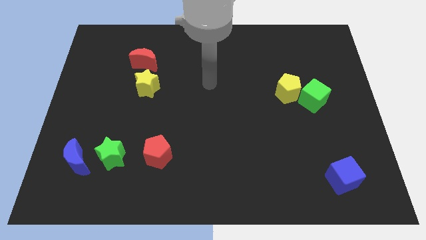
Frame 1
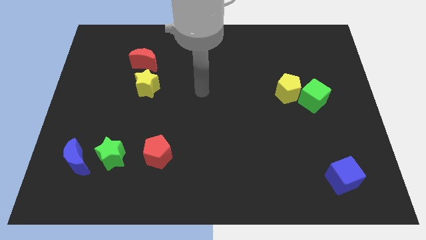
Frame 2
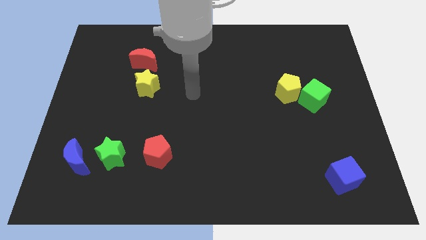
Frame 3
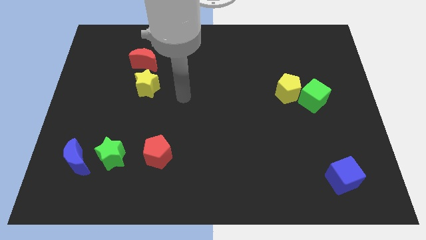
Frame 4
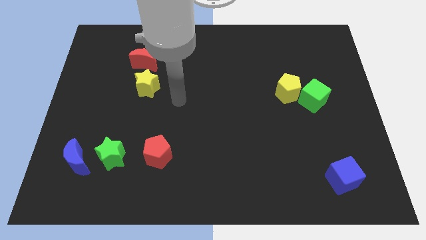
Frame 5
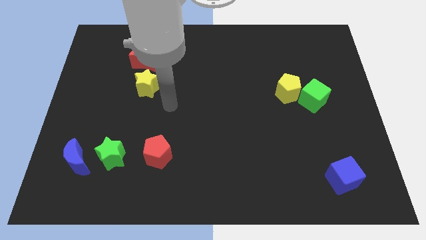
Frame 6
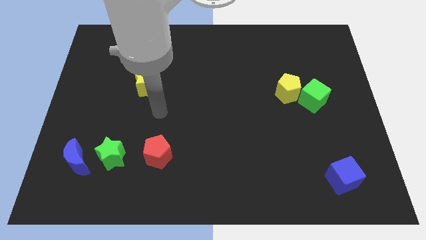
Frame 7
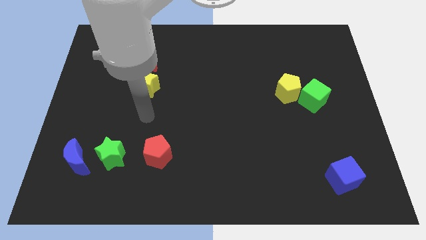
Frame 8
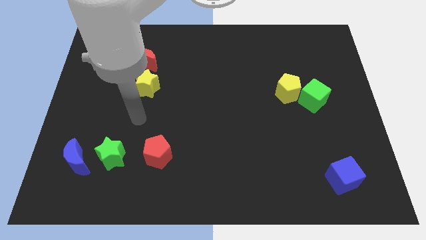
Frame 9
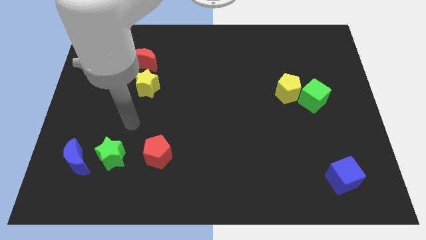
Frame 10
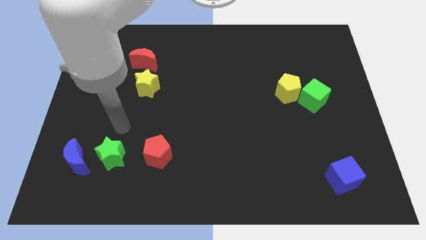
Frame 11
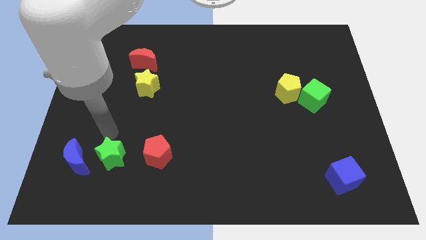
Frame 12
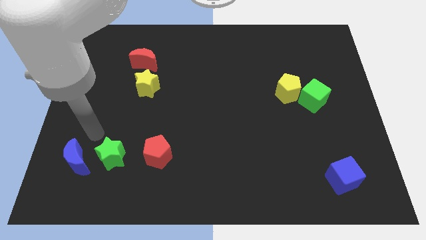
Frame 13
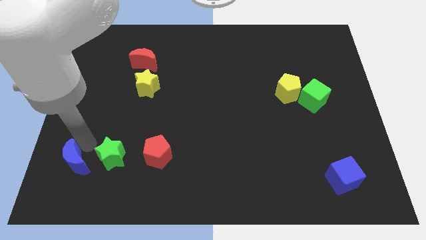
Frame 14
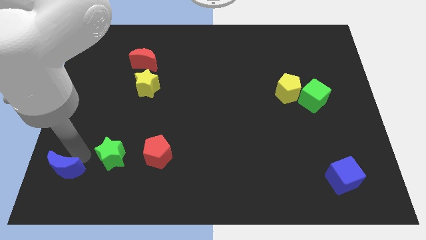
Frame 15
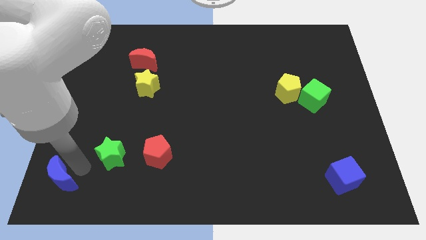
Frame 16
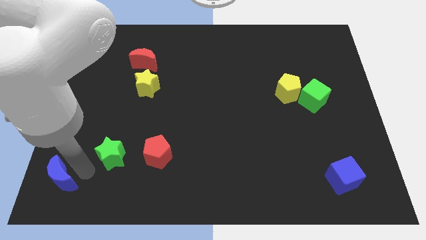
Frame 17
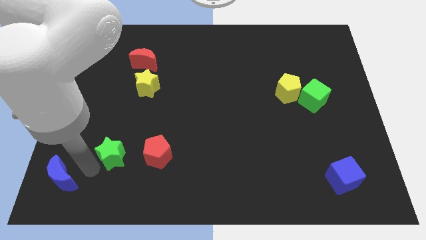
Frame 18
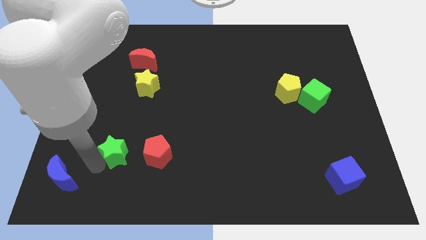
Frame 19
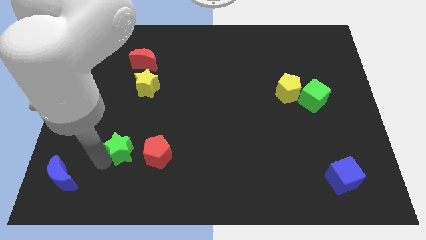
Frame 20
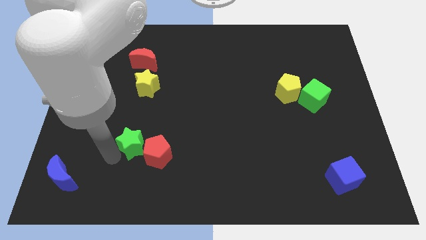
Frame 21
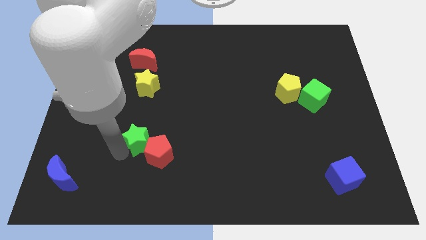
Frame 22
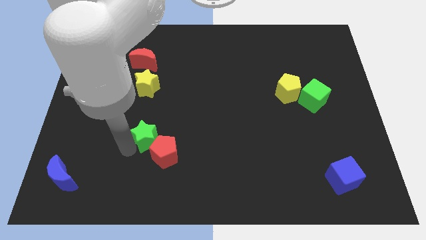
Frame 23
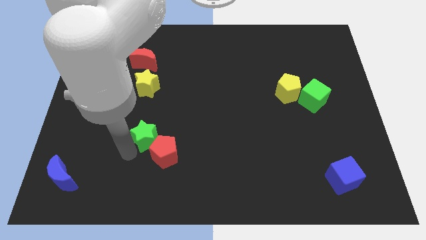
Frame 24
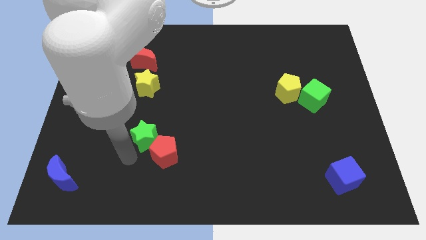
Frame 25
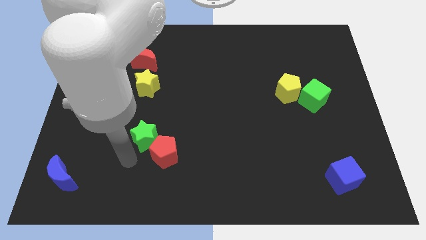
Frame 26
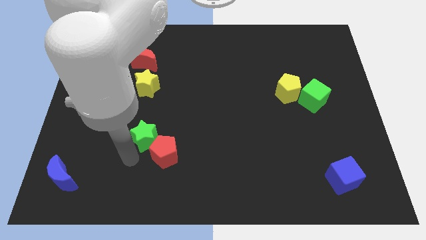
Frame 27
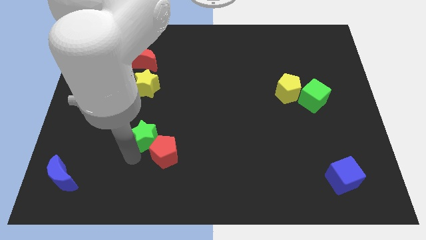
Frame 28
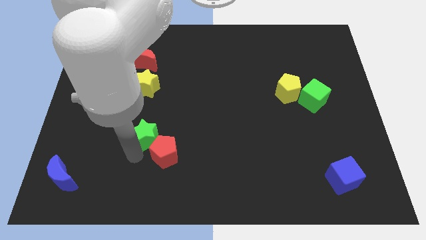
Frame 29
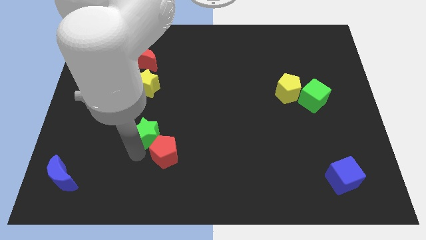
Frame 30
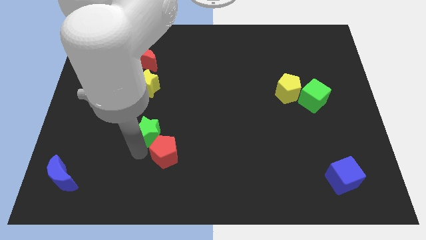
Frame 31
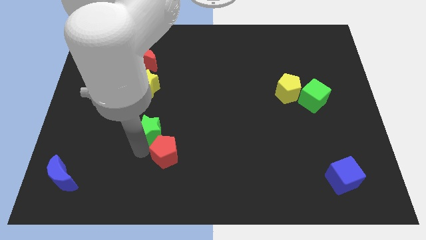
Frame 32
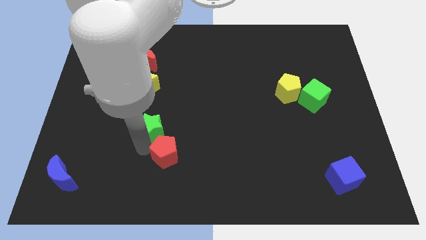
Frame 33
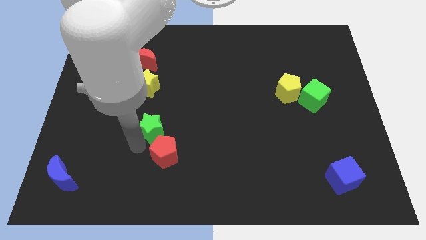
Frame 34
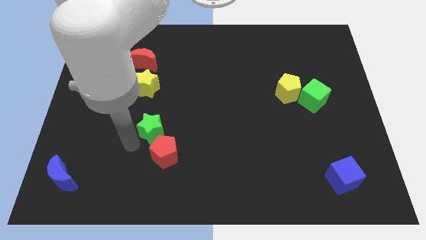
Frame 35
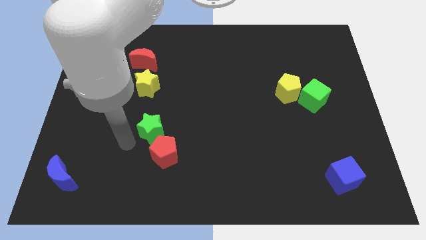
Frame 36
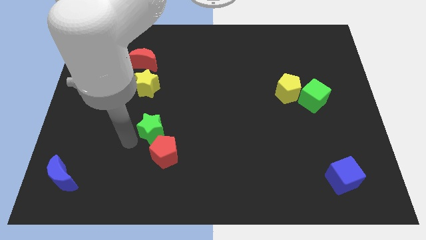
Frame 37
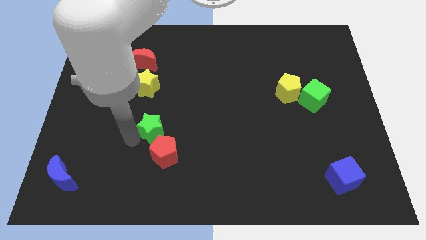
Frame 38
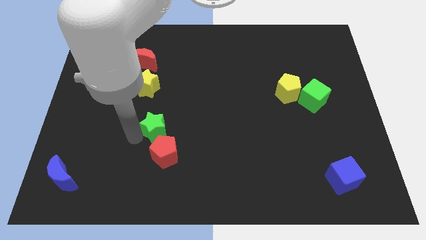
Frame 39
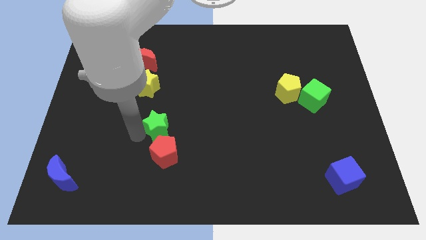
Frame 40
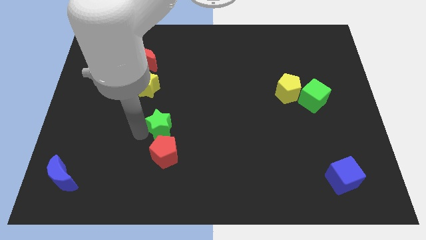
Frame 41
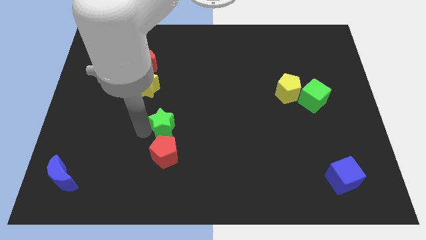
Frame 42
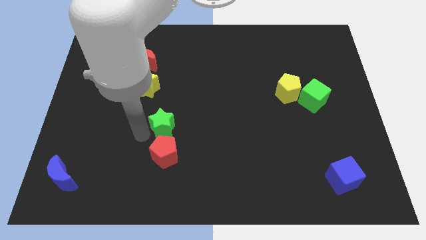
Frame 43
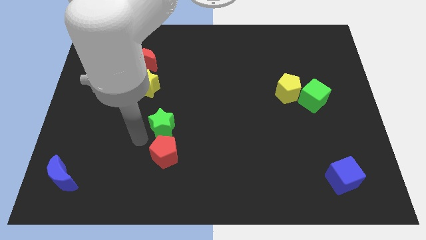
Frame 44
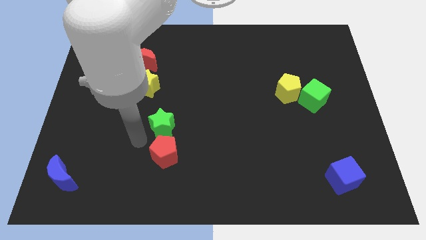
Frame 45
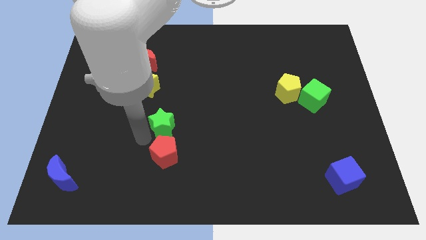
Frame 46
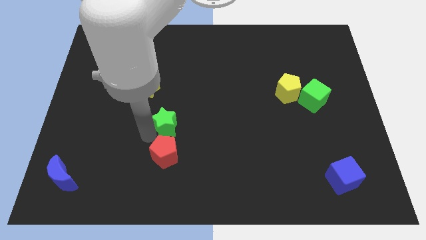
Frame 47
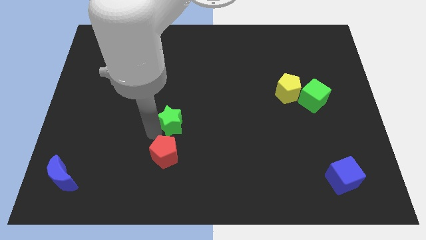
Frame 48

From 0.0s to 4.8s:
push the green star to the center of the board

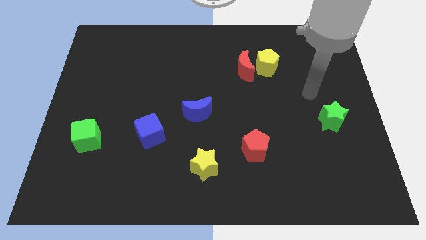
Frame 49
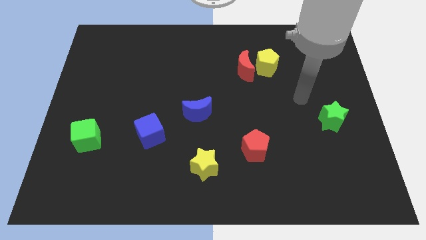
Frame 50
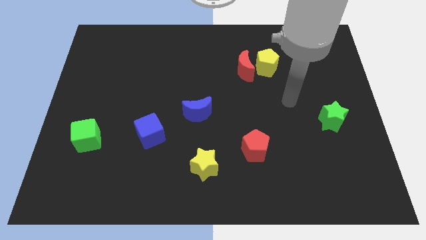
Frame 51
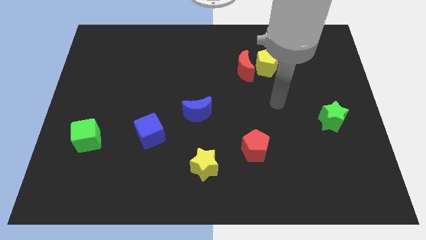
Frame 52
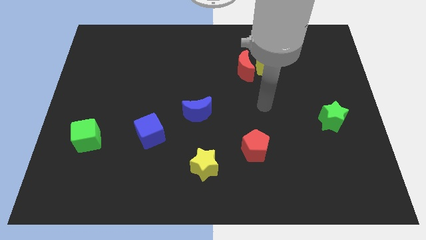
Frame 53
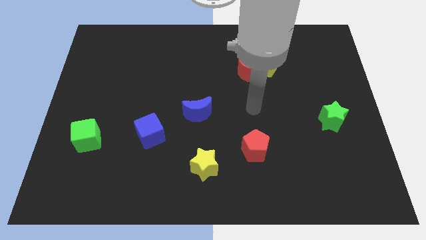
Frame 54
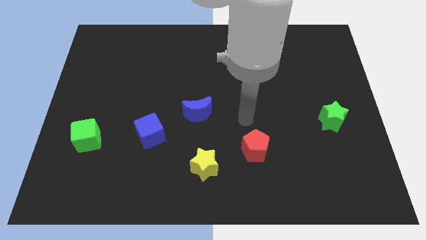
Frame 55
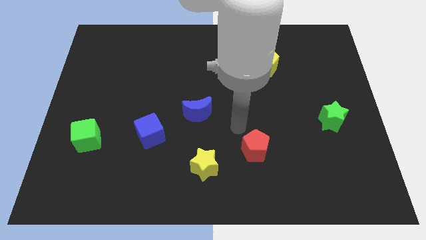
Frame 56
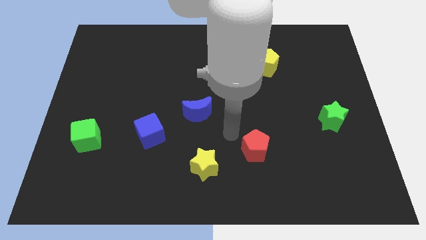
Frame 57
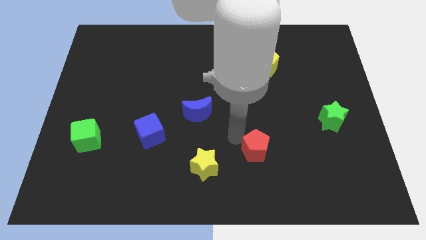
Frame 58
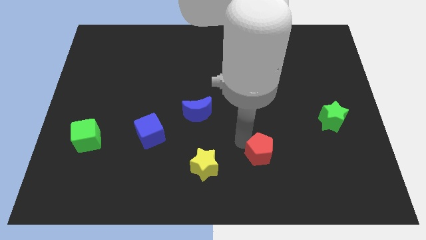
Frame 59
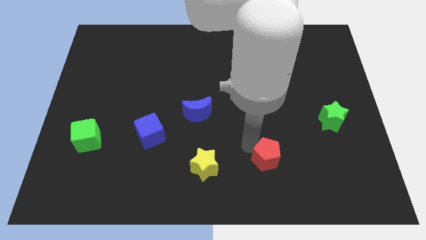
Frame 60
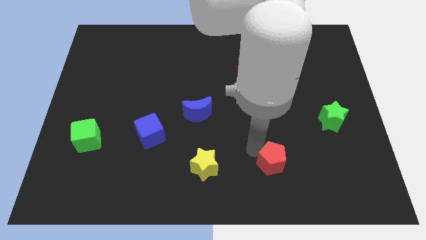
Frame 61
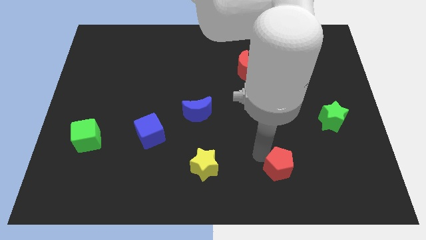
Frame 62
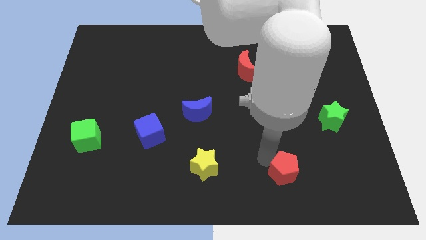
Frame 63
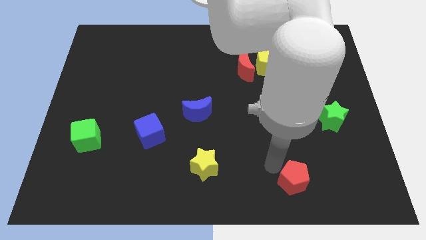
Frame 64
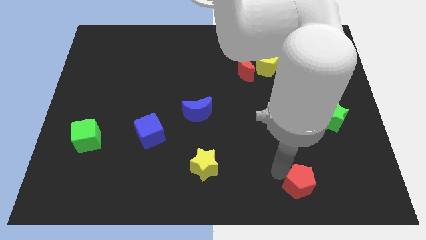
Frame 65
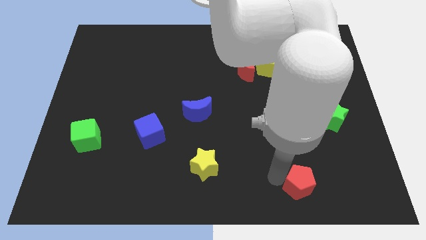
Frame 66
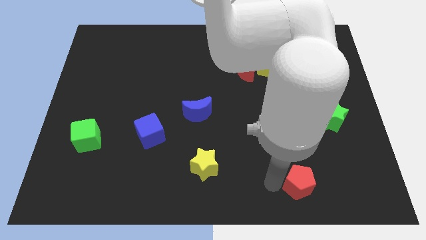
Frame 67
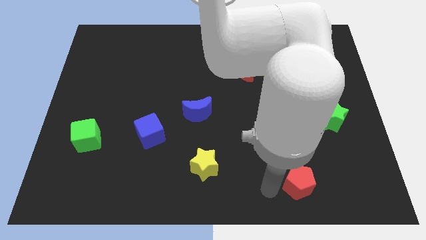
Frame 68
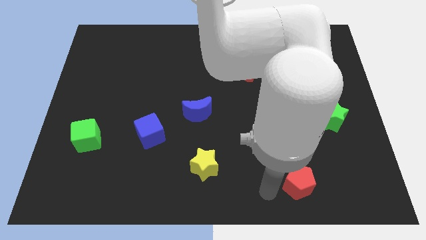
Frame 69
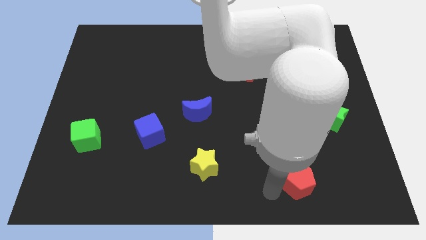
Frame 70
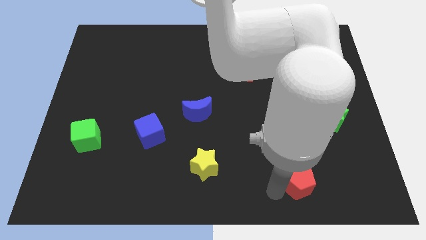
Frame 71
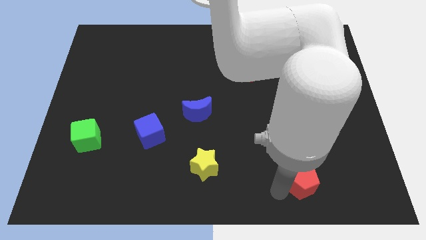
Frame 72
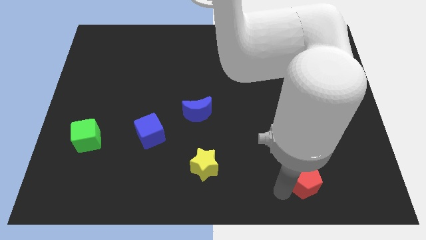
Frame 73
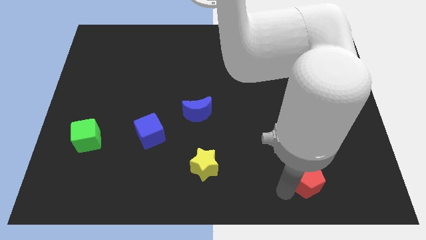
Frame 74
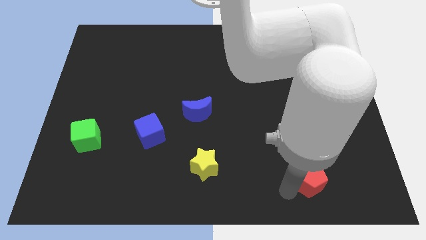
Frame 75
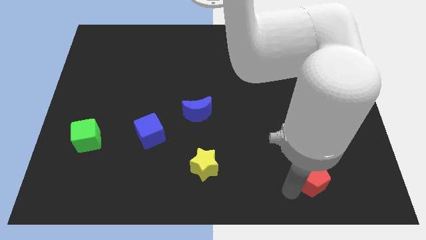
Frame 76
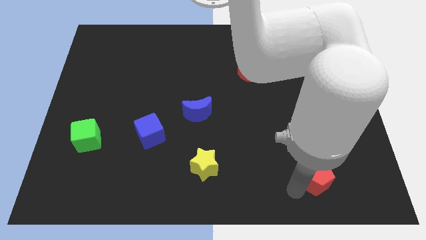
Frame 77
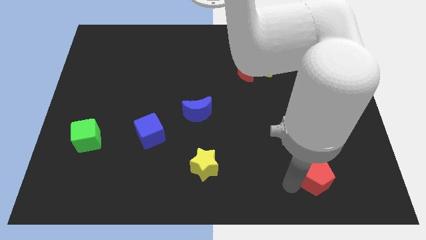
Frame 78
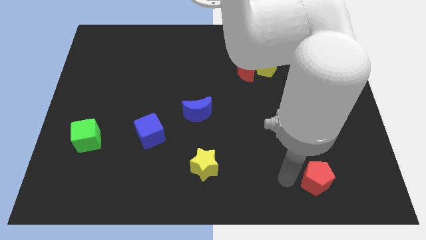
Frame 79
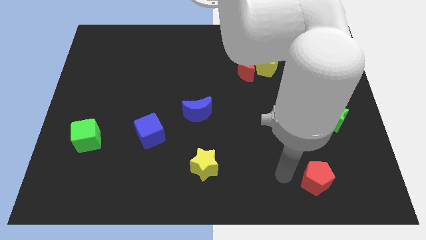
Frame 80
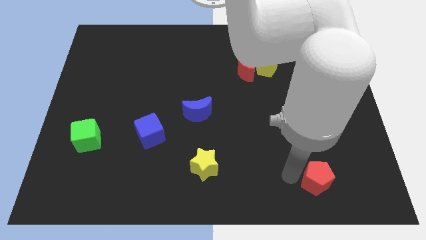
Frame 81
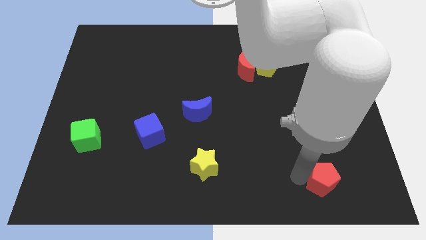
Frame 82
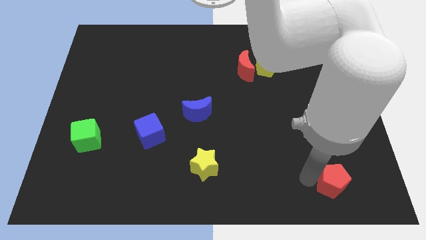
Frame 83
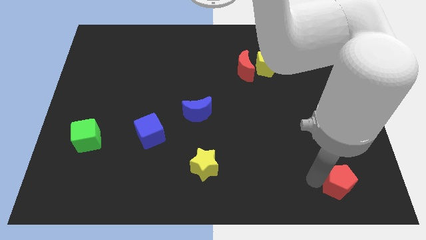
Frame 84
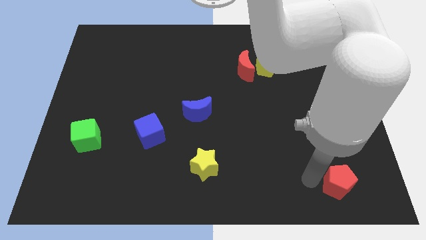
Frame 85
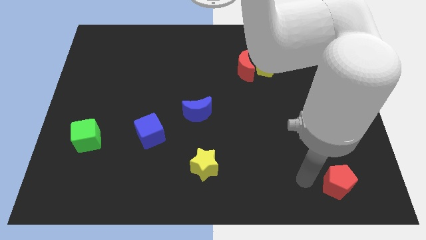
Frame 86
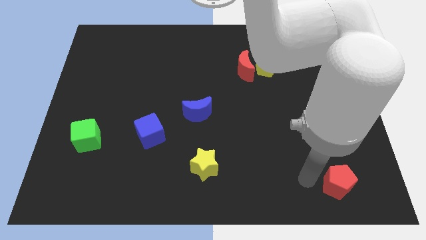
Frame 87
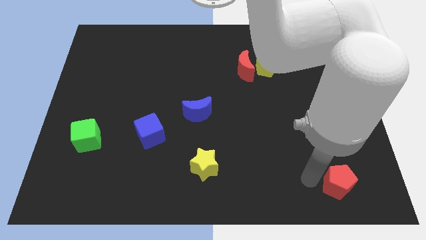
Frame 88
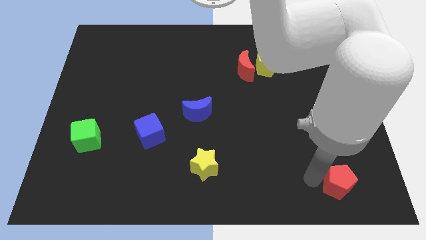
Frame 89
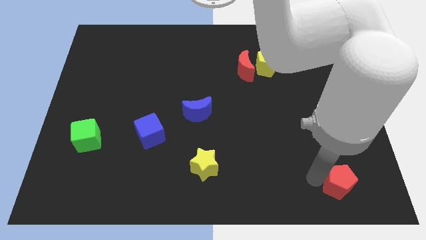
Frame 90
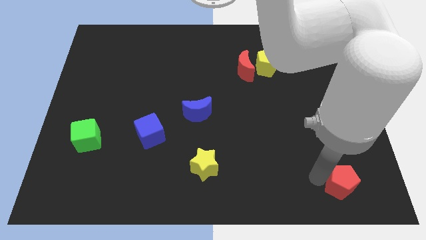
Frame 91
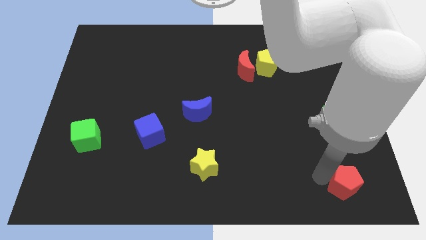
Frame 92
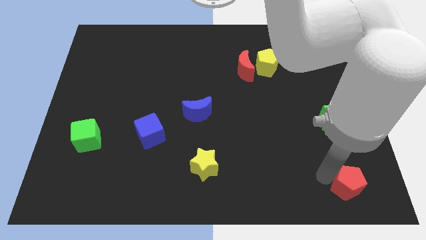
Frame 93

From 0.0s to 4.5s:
put the red pentagon to the bottom right corner
